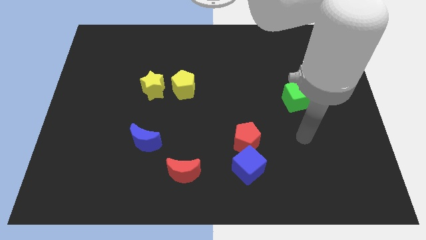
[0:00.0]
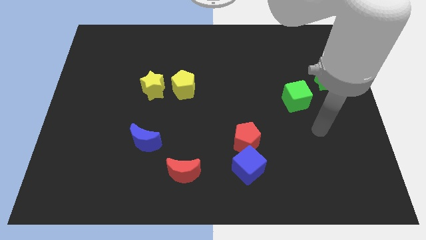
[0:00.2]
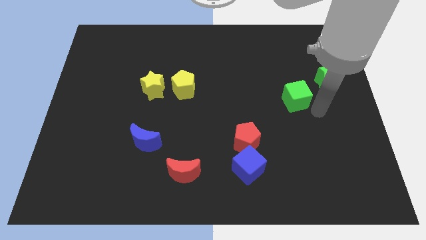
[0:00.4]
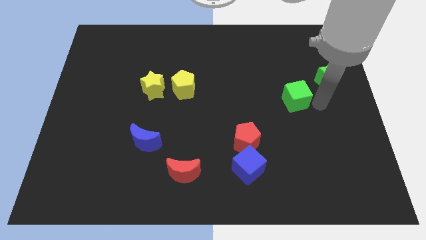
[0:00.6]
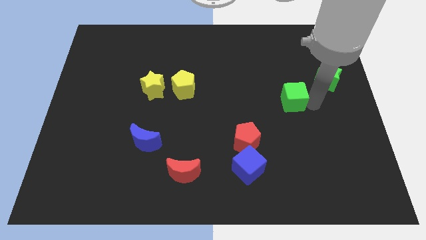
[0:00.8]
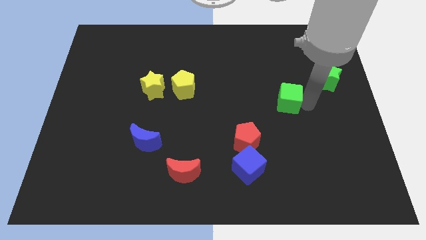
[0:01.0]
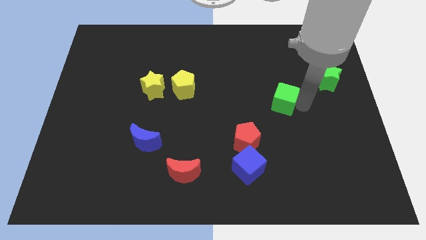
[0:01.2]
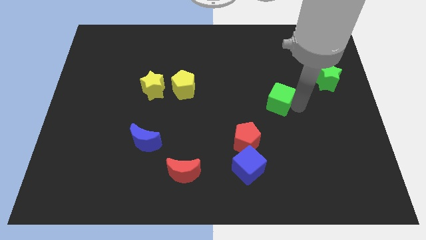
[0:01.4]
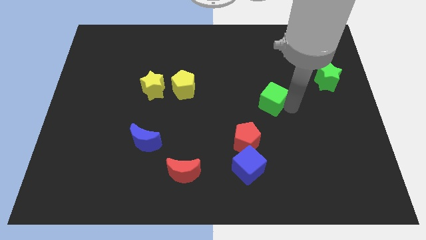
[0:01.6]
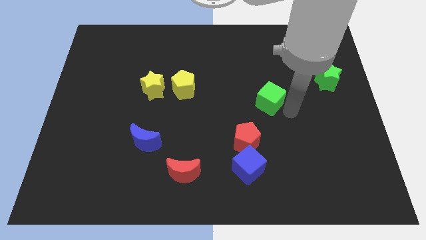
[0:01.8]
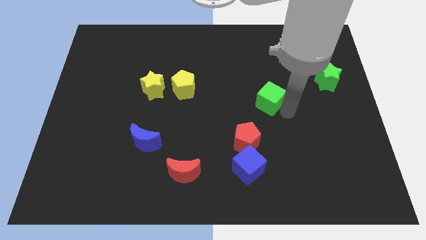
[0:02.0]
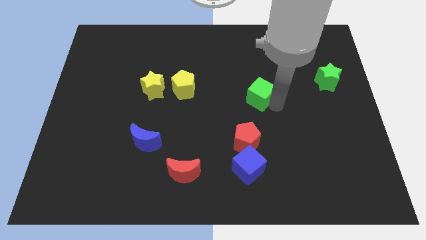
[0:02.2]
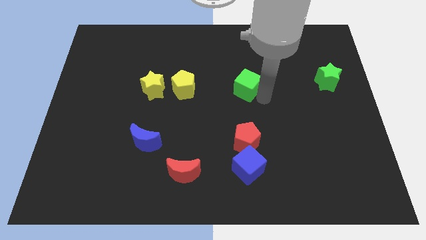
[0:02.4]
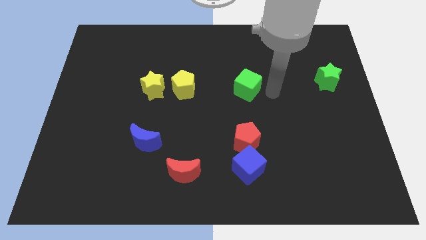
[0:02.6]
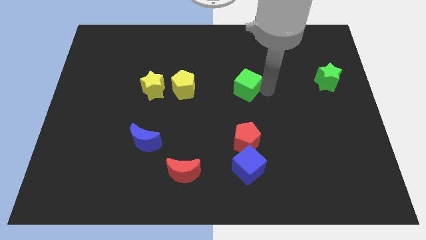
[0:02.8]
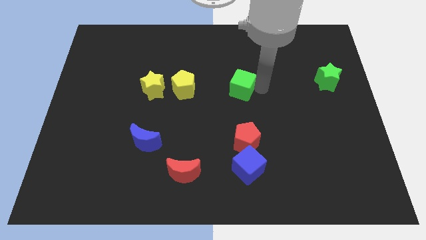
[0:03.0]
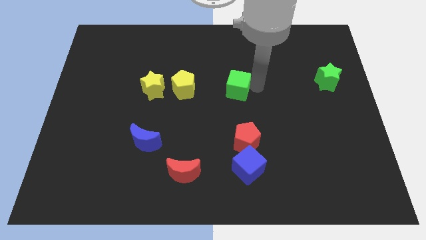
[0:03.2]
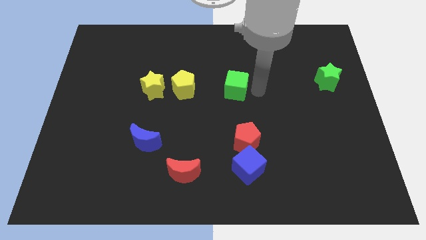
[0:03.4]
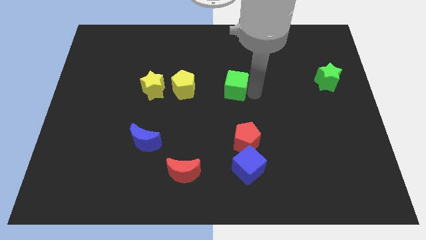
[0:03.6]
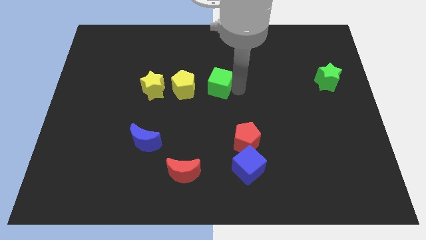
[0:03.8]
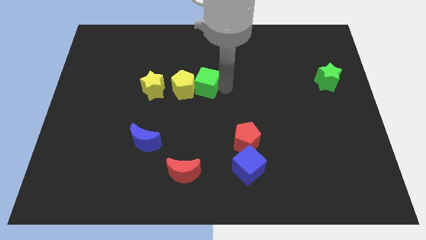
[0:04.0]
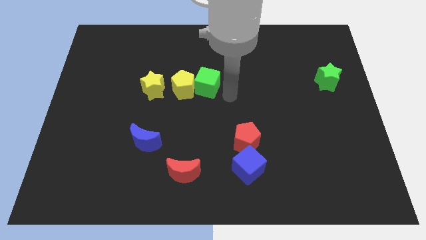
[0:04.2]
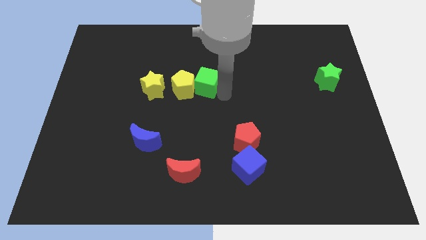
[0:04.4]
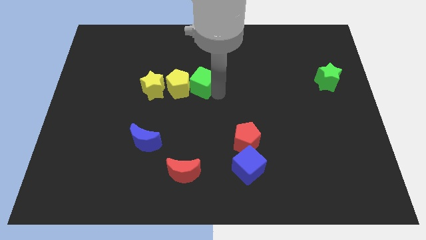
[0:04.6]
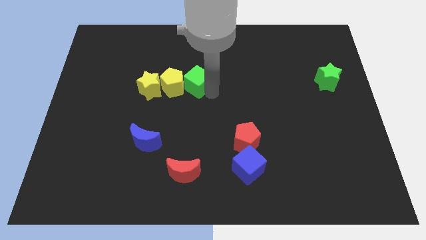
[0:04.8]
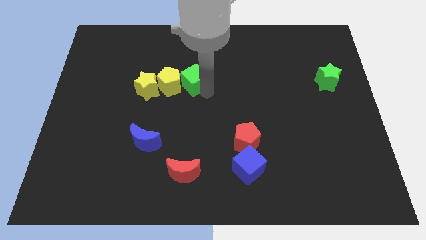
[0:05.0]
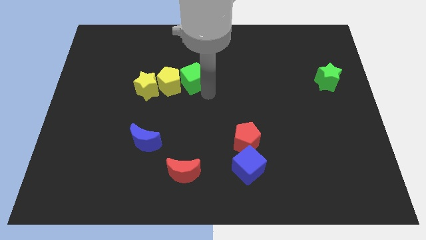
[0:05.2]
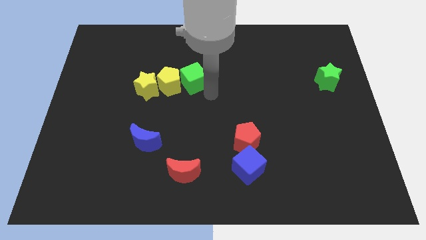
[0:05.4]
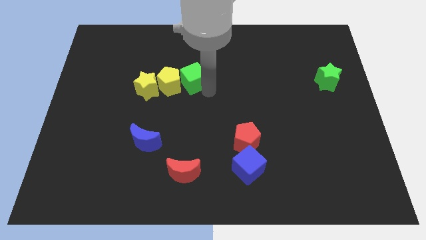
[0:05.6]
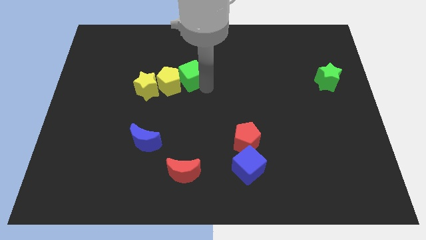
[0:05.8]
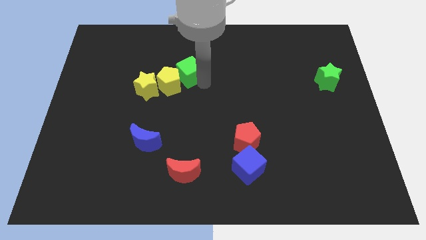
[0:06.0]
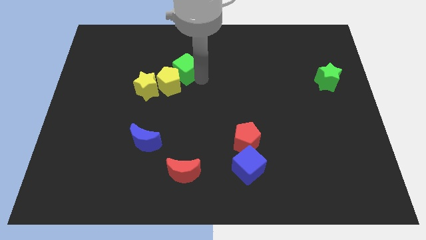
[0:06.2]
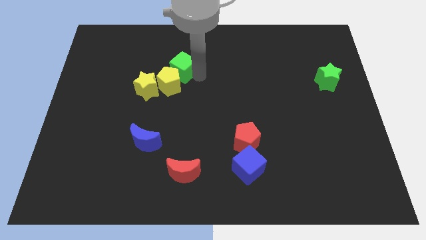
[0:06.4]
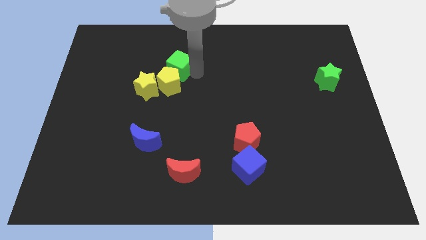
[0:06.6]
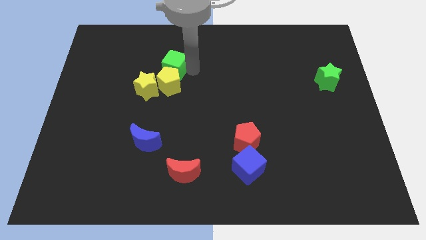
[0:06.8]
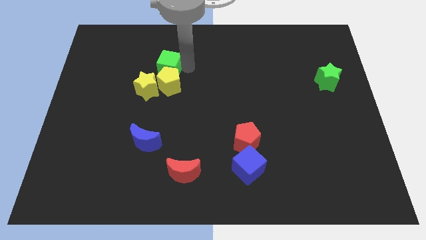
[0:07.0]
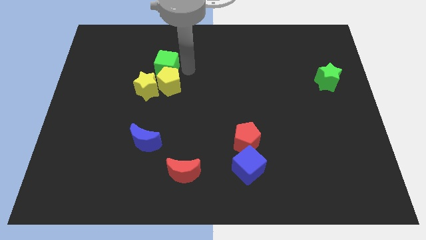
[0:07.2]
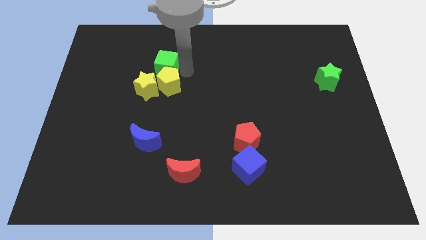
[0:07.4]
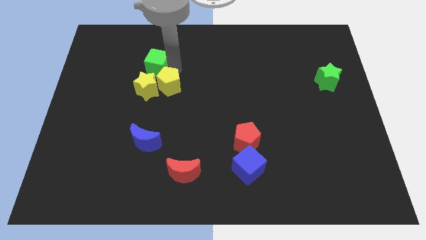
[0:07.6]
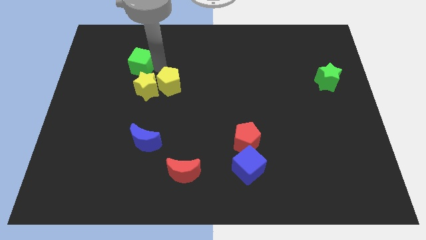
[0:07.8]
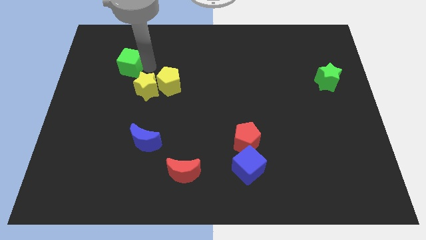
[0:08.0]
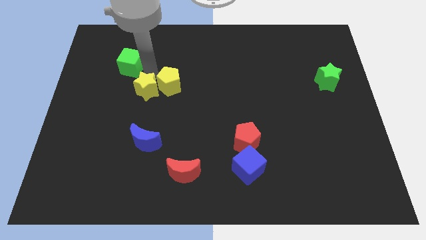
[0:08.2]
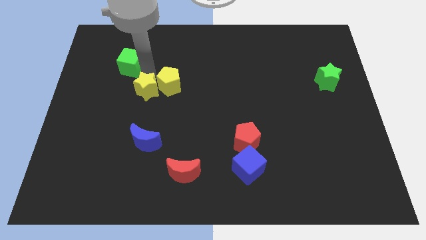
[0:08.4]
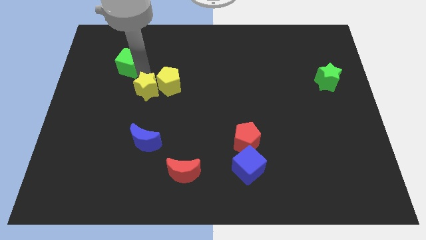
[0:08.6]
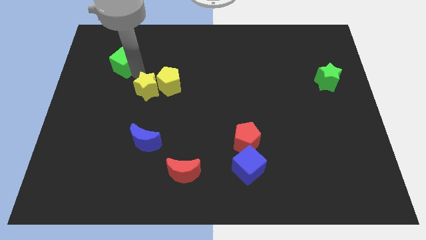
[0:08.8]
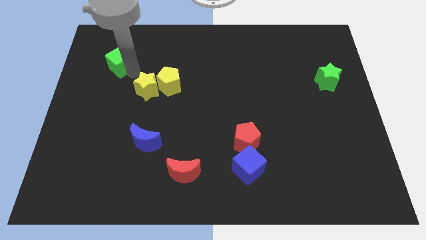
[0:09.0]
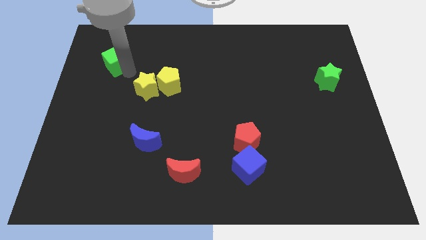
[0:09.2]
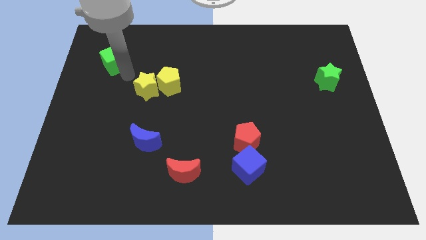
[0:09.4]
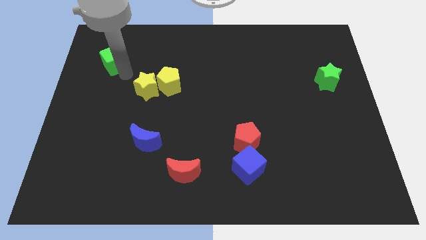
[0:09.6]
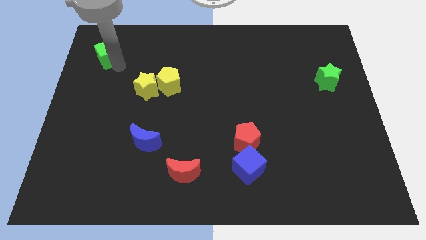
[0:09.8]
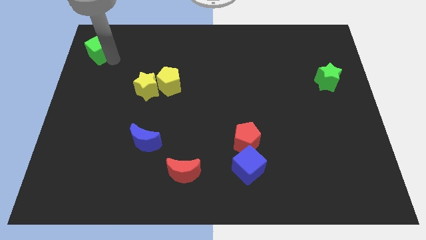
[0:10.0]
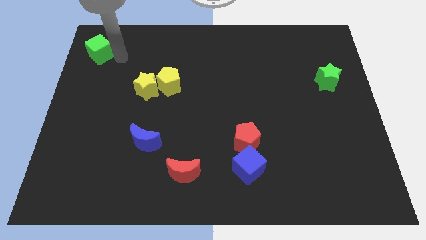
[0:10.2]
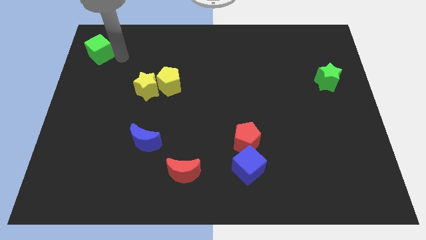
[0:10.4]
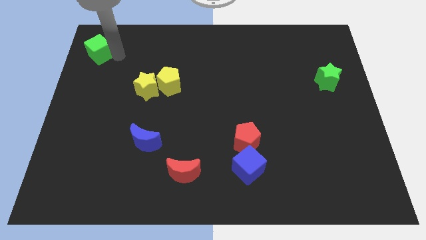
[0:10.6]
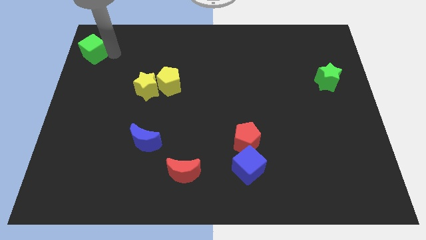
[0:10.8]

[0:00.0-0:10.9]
move the green cube to the top left corner

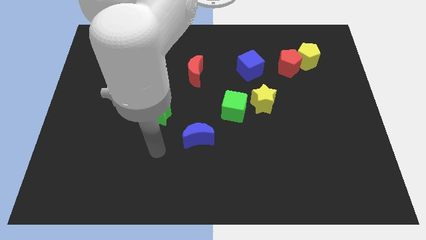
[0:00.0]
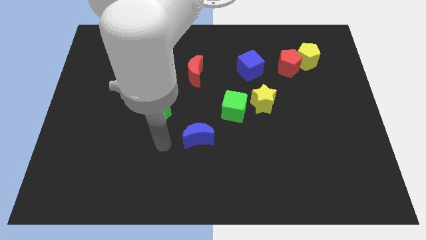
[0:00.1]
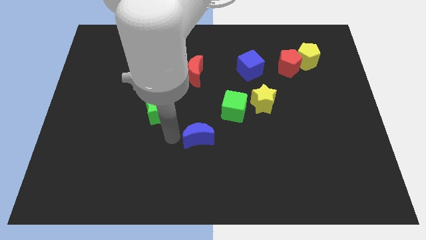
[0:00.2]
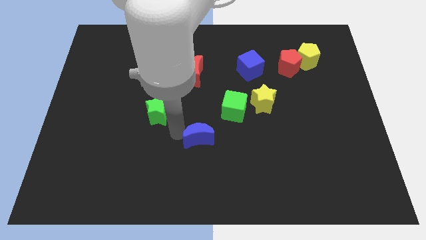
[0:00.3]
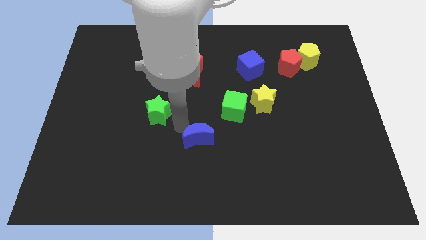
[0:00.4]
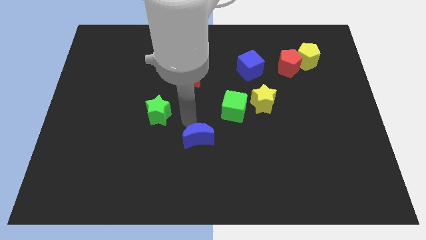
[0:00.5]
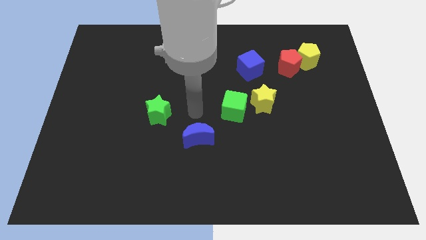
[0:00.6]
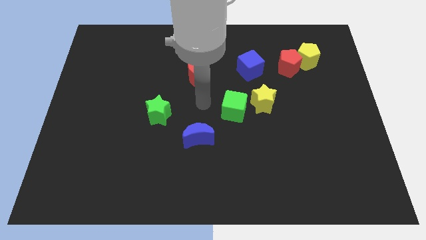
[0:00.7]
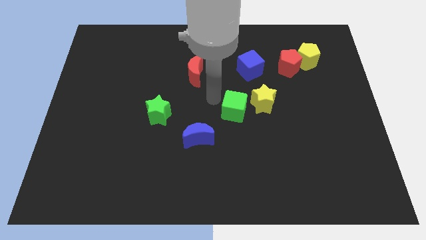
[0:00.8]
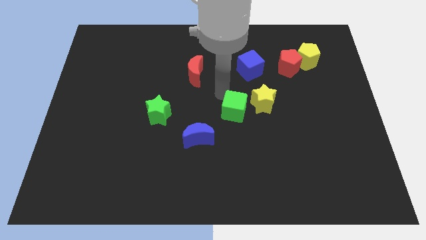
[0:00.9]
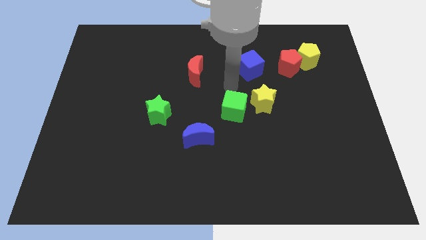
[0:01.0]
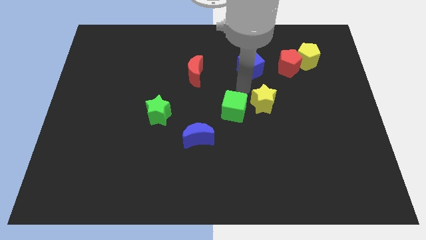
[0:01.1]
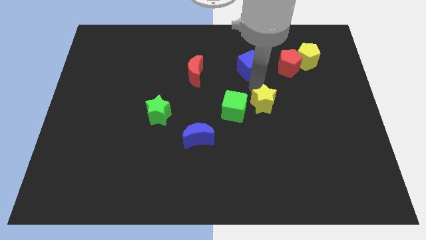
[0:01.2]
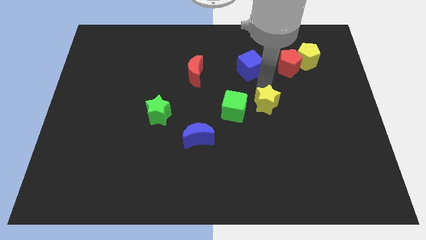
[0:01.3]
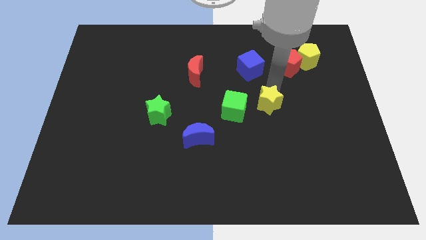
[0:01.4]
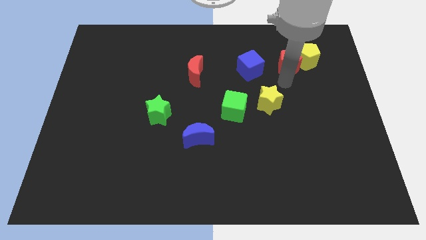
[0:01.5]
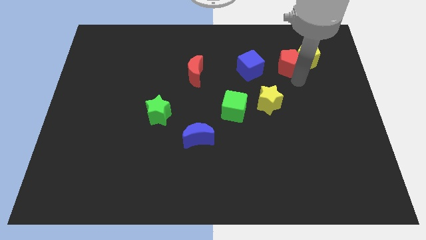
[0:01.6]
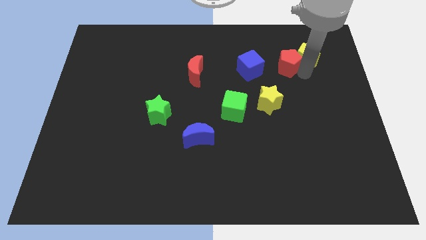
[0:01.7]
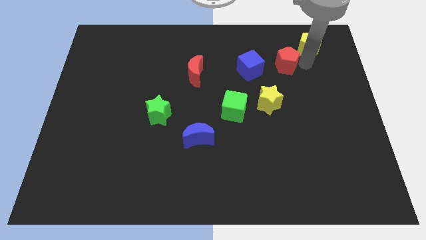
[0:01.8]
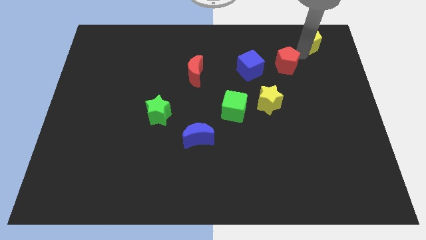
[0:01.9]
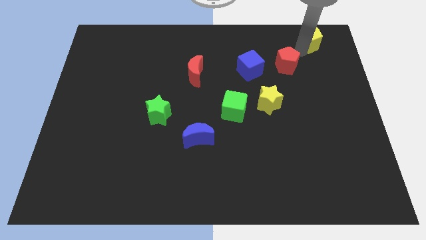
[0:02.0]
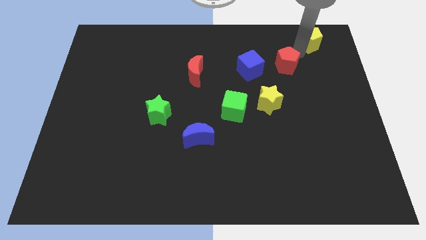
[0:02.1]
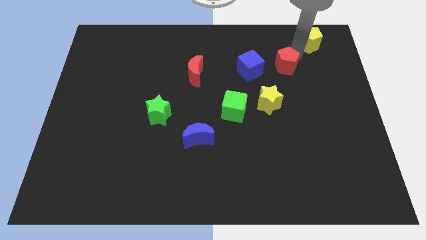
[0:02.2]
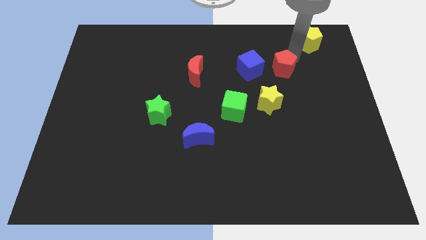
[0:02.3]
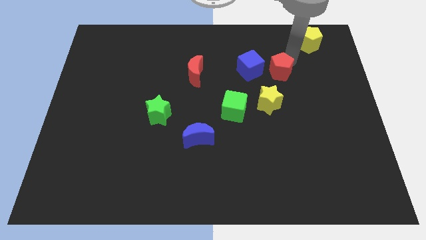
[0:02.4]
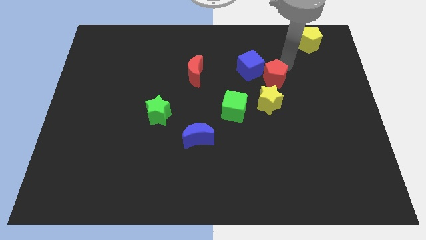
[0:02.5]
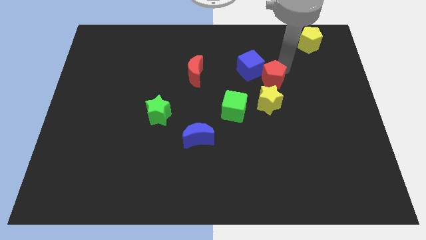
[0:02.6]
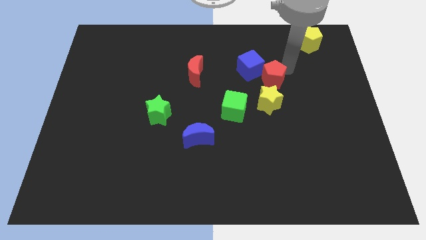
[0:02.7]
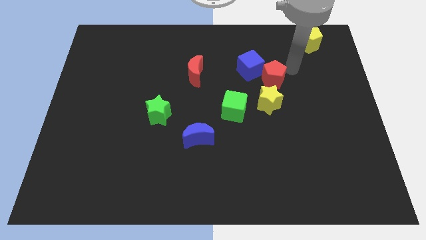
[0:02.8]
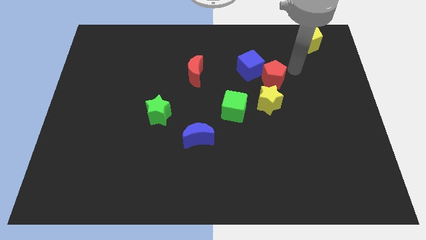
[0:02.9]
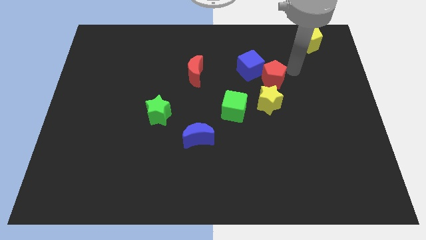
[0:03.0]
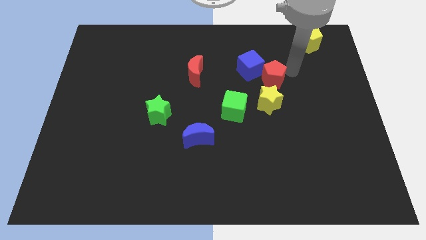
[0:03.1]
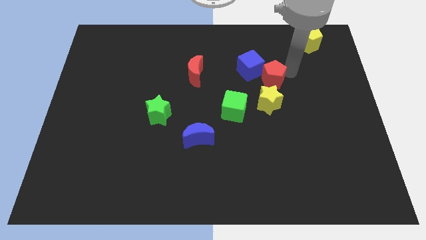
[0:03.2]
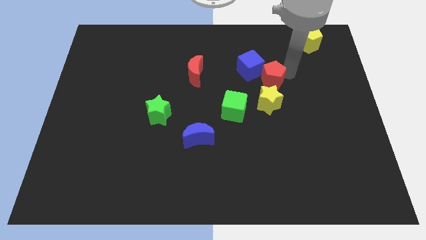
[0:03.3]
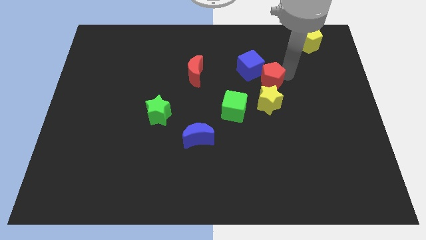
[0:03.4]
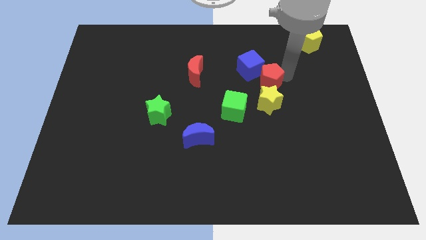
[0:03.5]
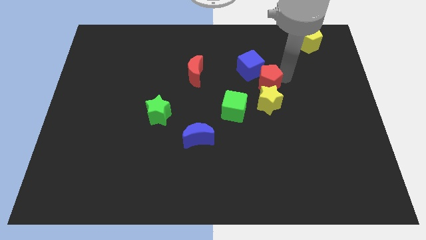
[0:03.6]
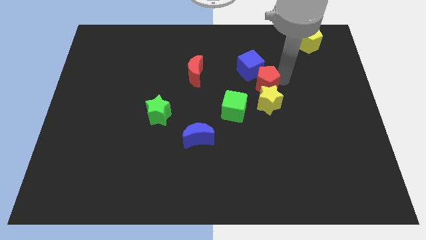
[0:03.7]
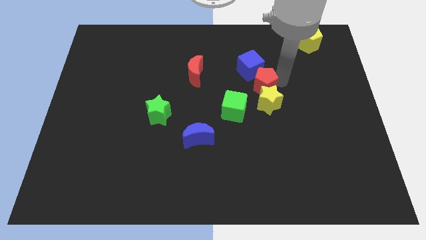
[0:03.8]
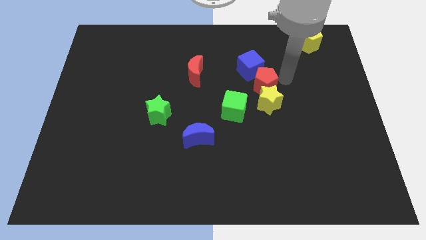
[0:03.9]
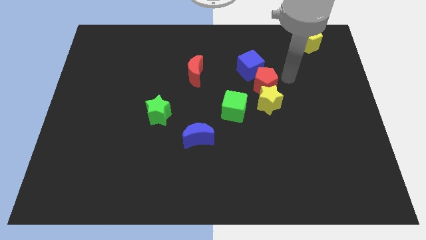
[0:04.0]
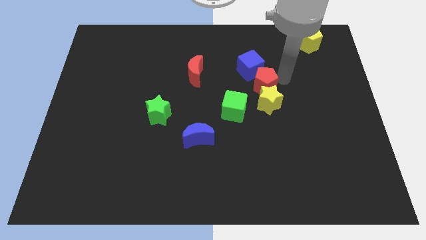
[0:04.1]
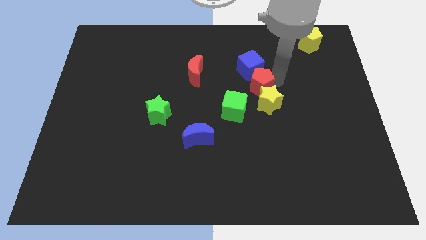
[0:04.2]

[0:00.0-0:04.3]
push the red pentagon to the middle
